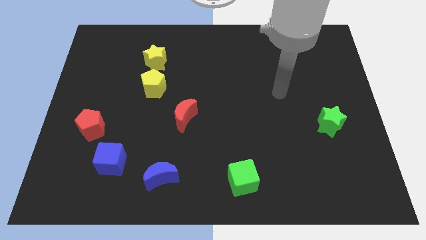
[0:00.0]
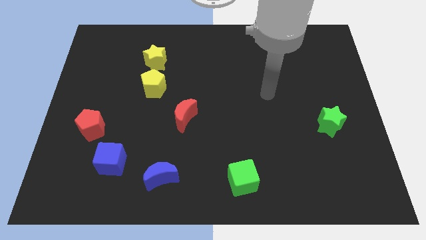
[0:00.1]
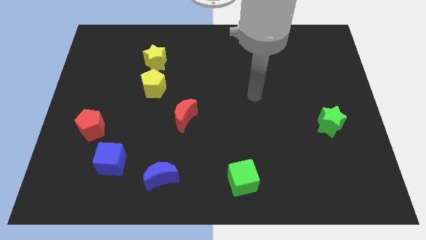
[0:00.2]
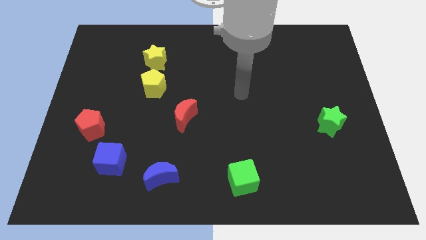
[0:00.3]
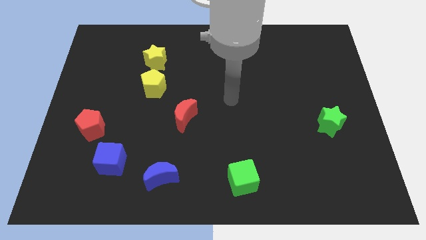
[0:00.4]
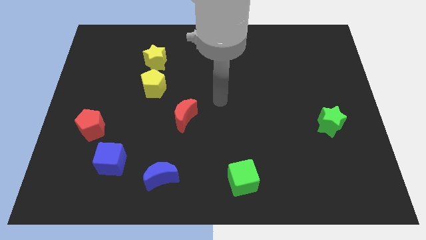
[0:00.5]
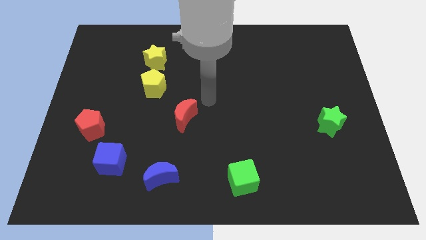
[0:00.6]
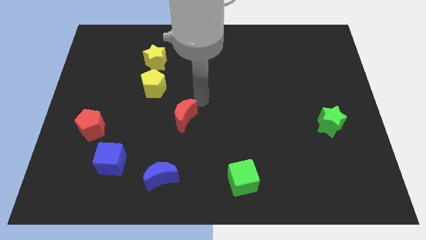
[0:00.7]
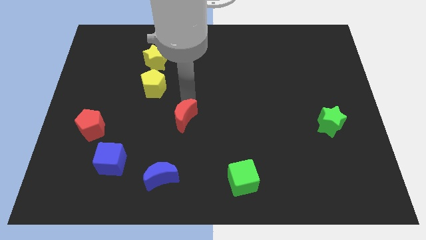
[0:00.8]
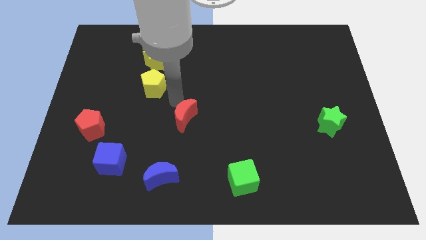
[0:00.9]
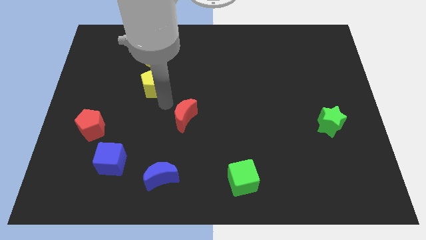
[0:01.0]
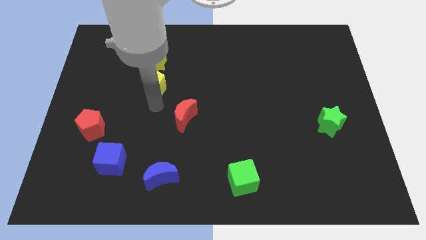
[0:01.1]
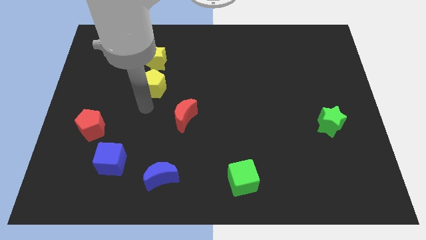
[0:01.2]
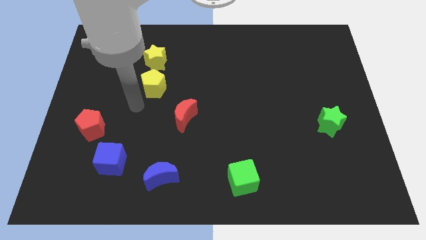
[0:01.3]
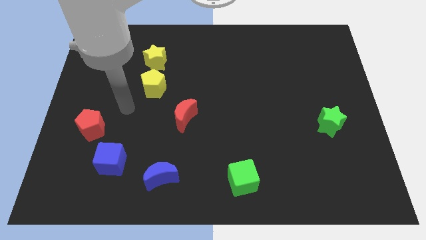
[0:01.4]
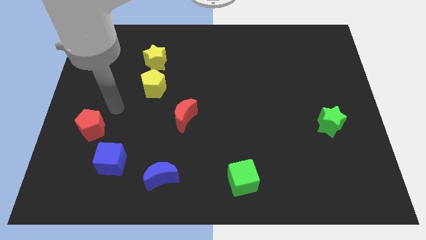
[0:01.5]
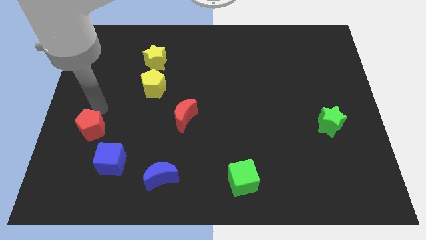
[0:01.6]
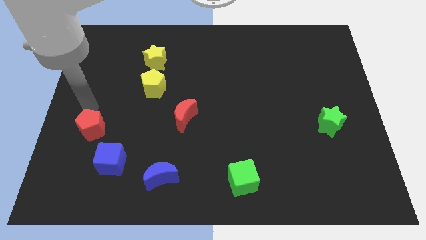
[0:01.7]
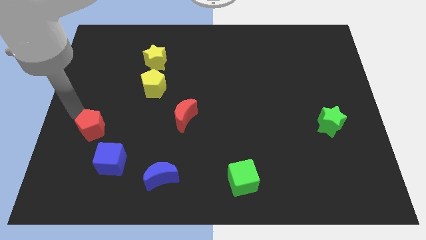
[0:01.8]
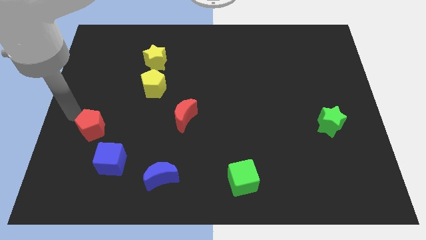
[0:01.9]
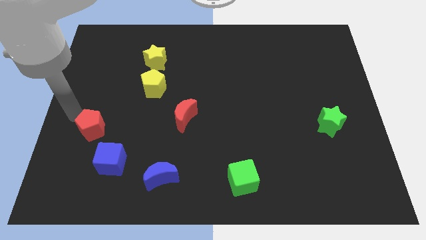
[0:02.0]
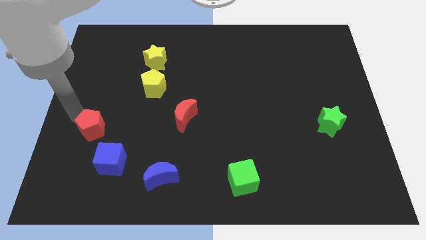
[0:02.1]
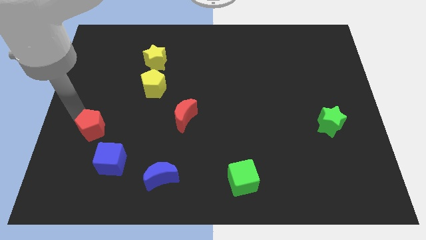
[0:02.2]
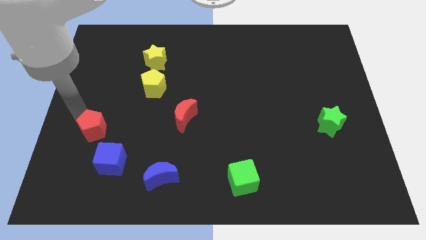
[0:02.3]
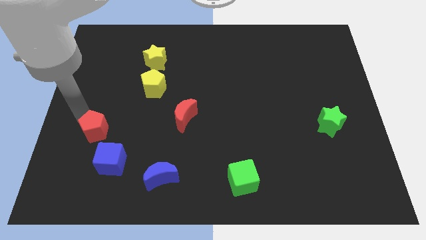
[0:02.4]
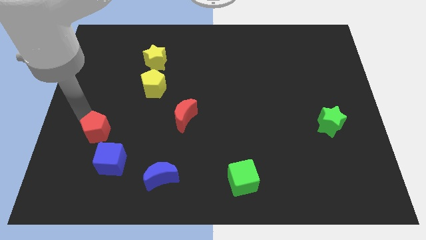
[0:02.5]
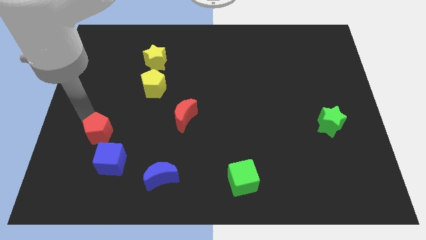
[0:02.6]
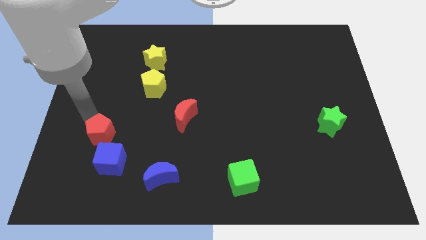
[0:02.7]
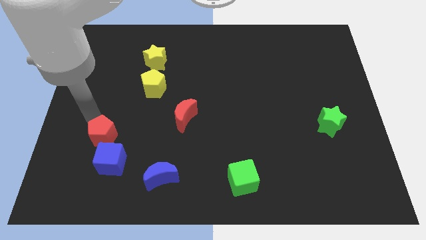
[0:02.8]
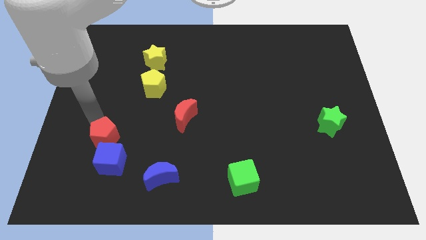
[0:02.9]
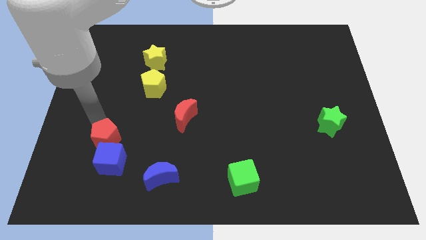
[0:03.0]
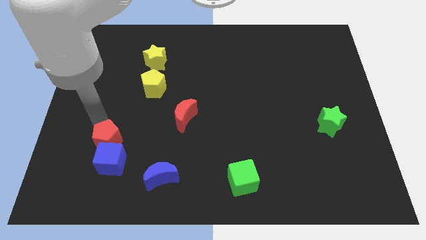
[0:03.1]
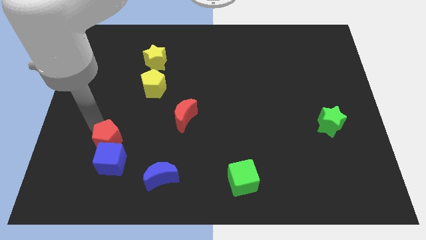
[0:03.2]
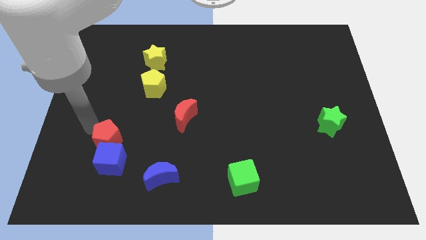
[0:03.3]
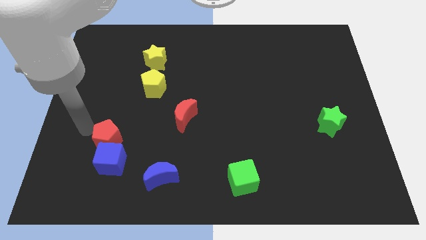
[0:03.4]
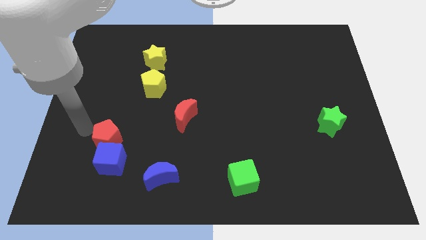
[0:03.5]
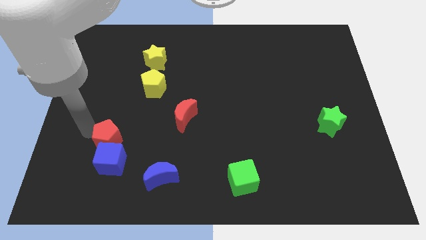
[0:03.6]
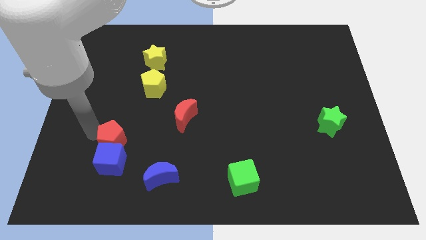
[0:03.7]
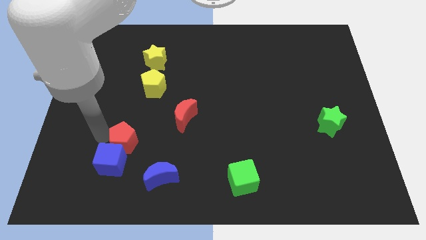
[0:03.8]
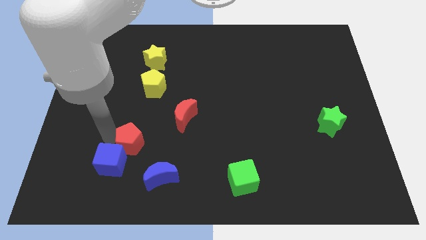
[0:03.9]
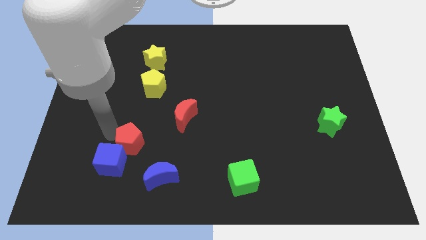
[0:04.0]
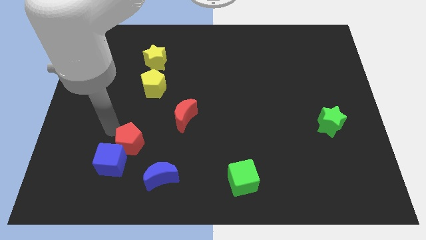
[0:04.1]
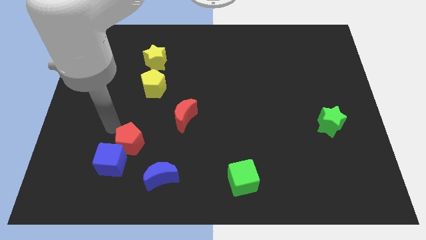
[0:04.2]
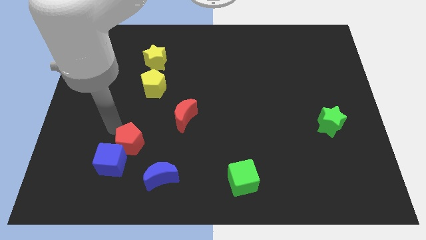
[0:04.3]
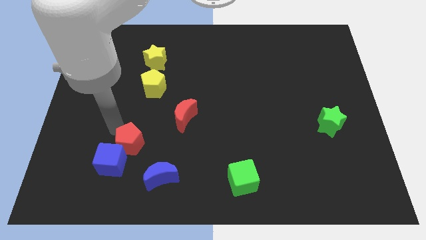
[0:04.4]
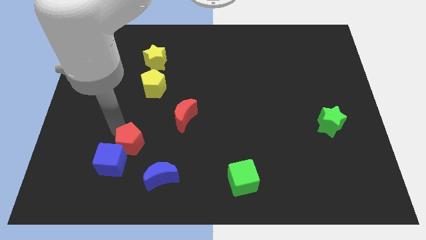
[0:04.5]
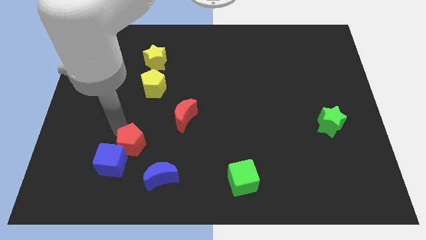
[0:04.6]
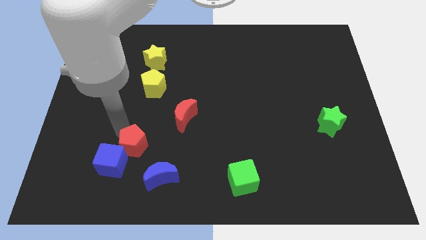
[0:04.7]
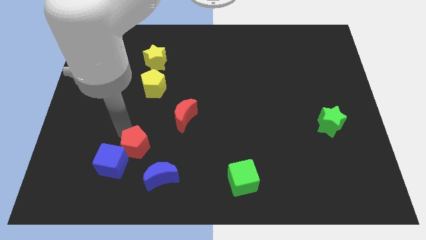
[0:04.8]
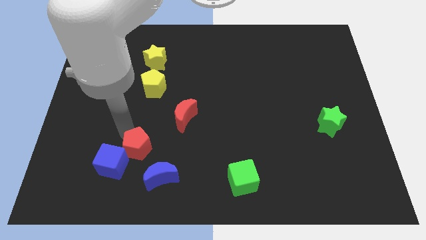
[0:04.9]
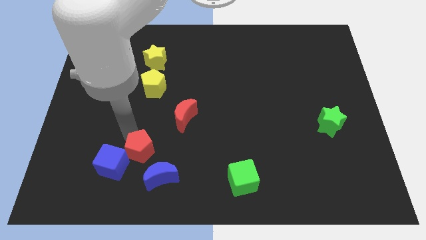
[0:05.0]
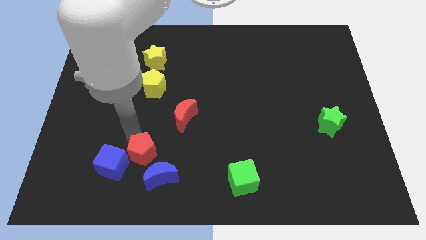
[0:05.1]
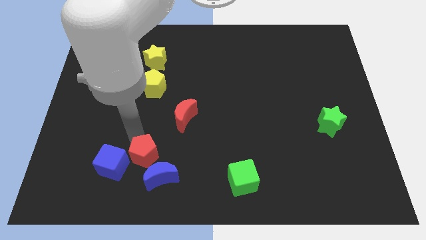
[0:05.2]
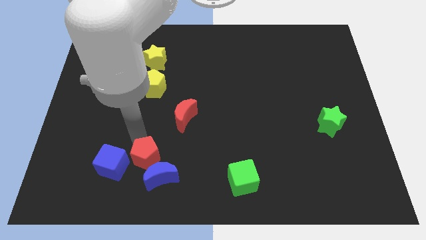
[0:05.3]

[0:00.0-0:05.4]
put the red pentagon close to the blue moon

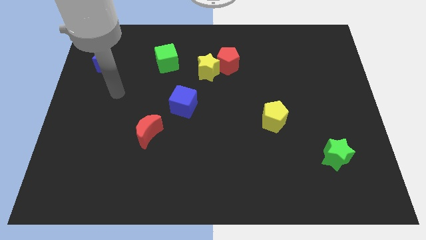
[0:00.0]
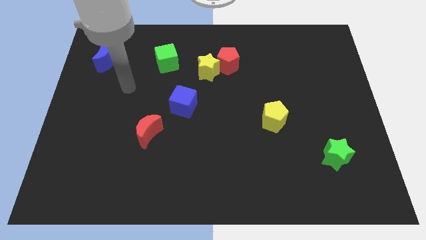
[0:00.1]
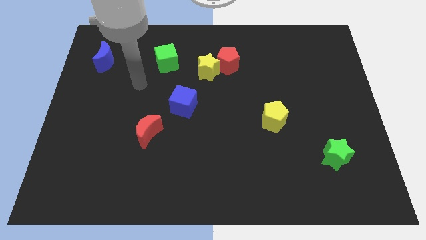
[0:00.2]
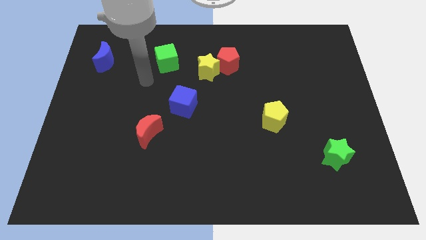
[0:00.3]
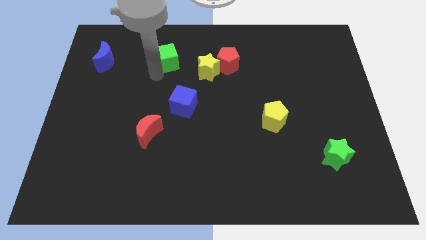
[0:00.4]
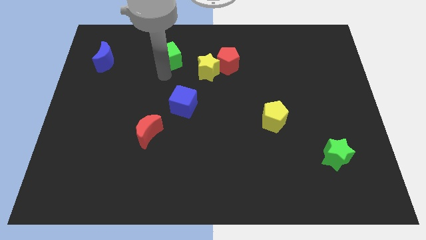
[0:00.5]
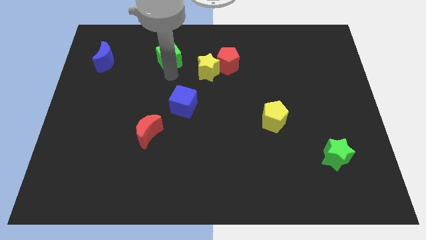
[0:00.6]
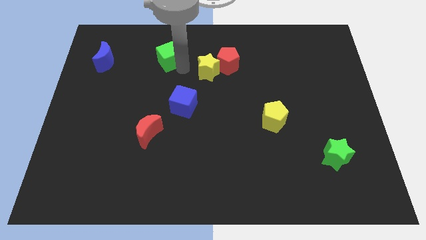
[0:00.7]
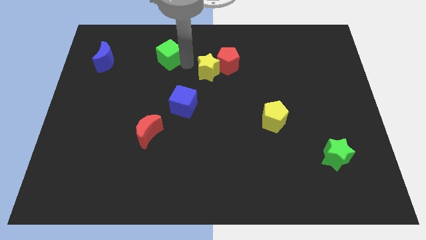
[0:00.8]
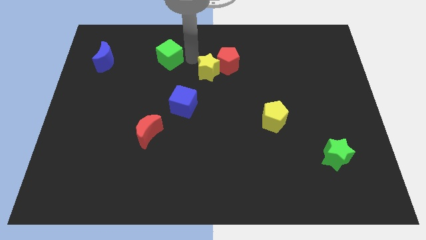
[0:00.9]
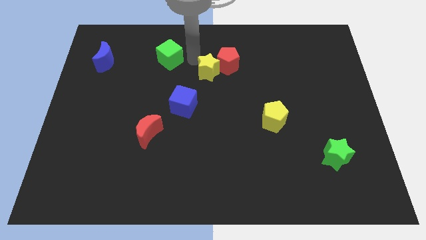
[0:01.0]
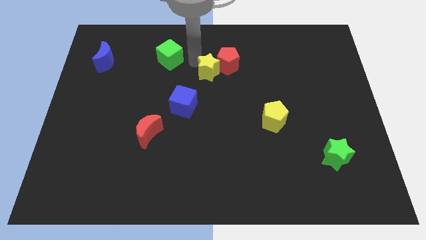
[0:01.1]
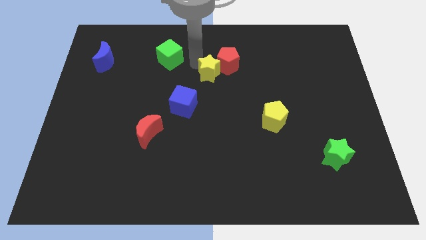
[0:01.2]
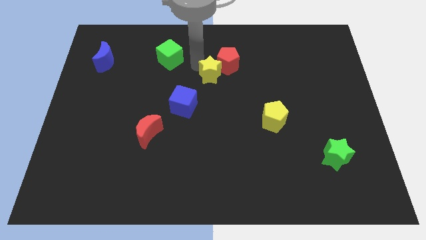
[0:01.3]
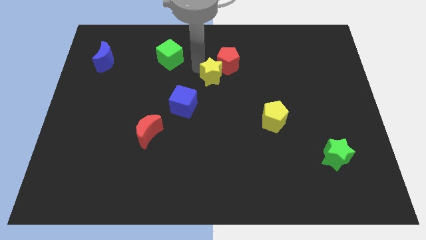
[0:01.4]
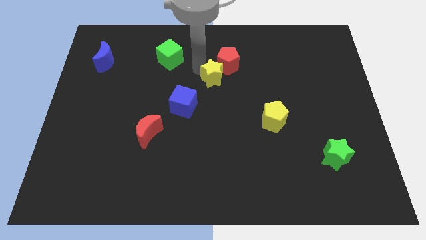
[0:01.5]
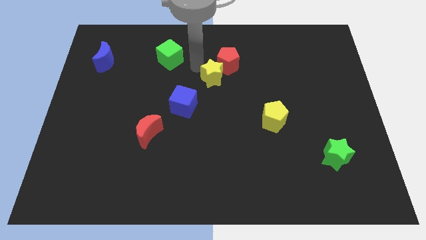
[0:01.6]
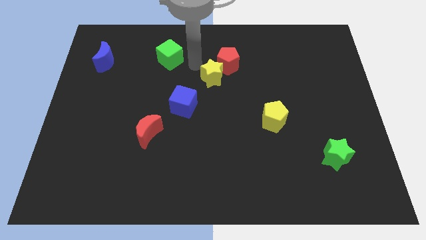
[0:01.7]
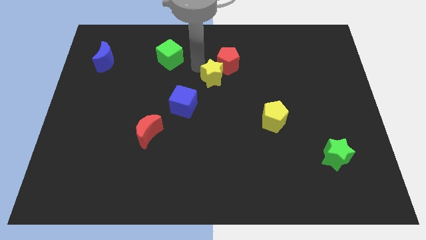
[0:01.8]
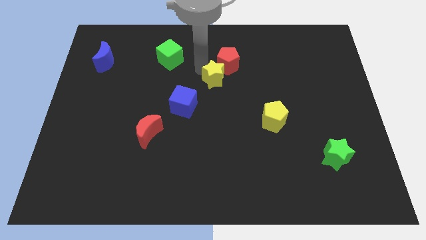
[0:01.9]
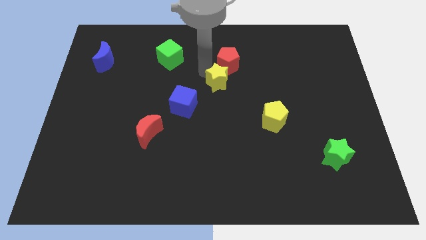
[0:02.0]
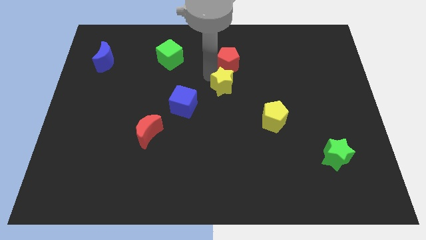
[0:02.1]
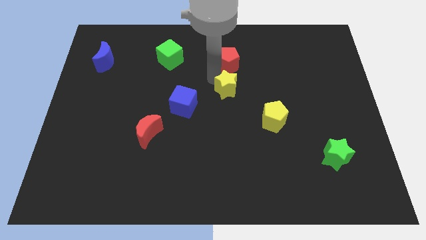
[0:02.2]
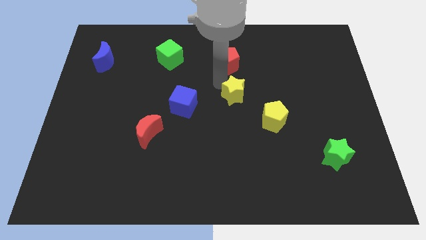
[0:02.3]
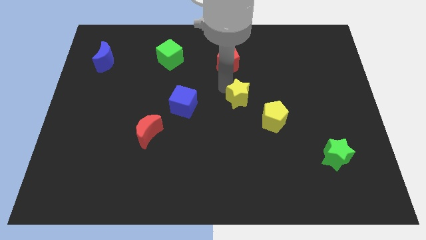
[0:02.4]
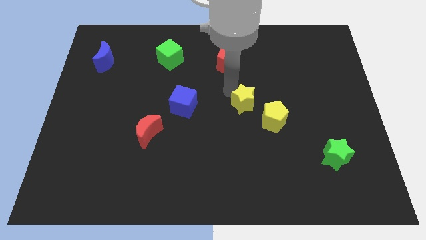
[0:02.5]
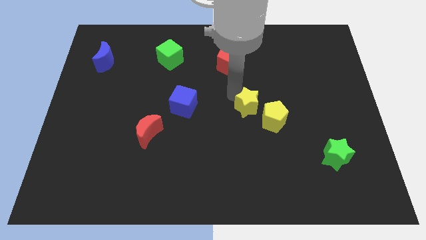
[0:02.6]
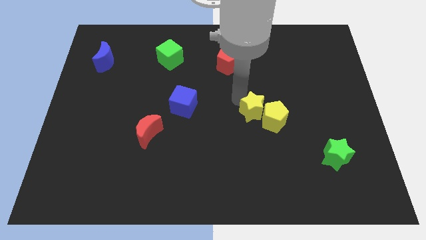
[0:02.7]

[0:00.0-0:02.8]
push the yellow star to the yellow pentagon
